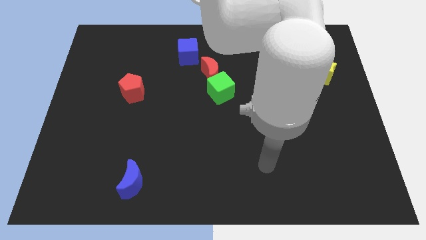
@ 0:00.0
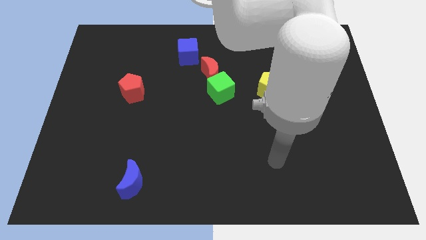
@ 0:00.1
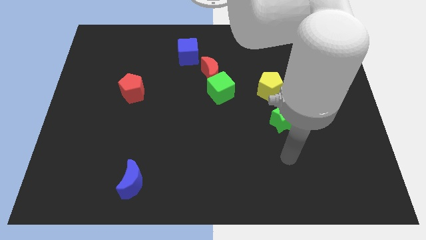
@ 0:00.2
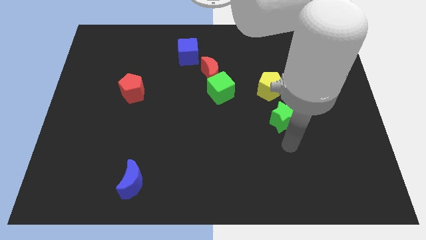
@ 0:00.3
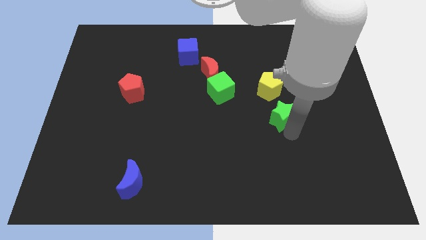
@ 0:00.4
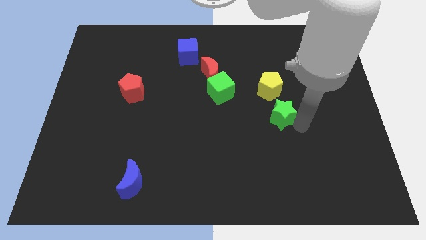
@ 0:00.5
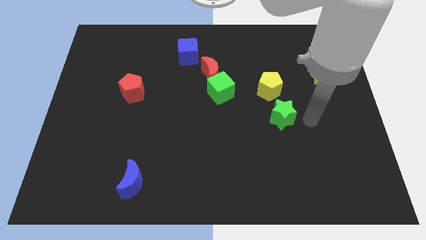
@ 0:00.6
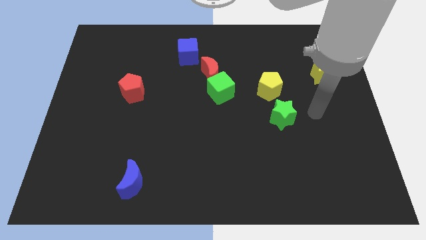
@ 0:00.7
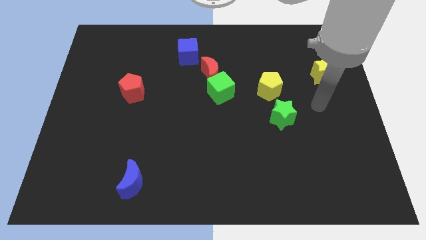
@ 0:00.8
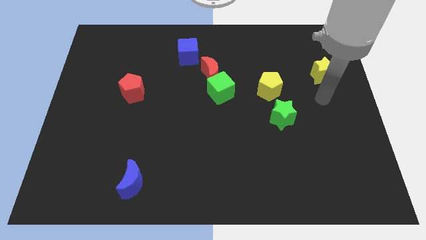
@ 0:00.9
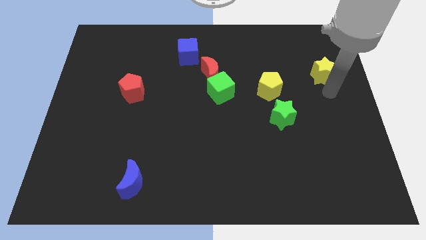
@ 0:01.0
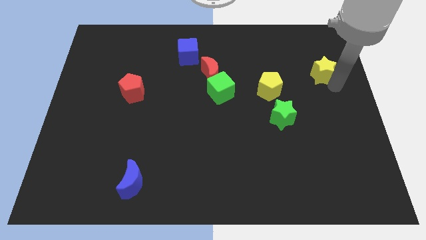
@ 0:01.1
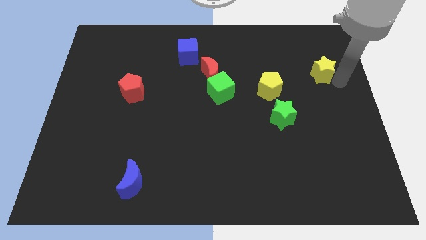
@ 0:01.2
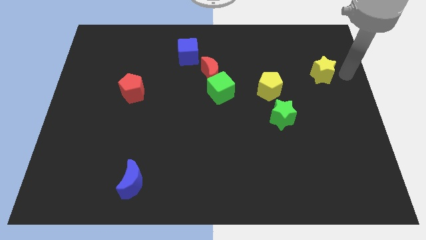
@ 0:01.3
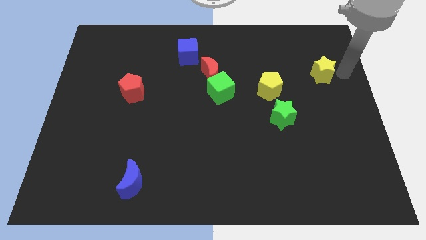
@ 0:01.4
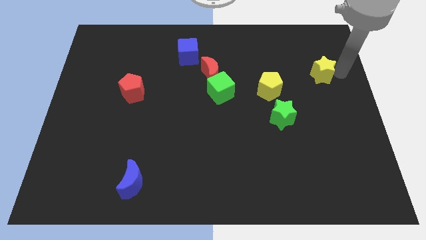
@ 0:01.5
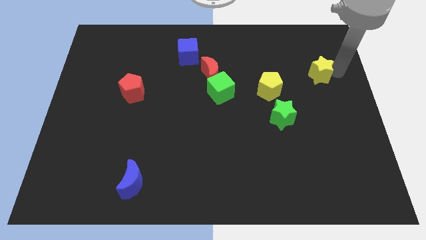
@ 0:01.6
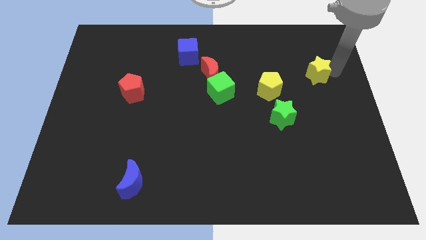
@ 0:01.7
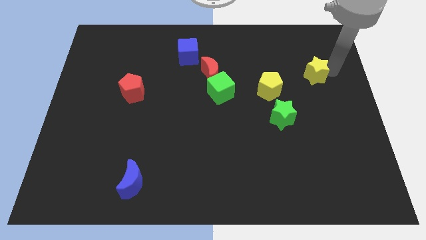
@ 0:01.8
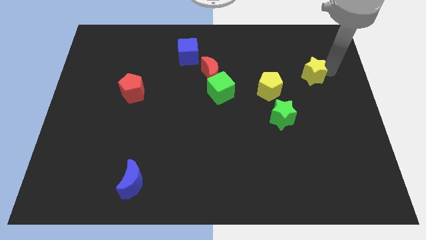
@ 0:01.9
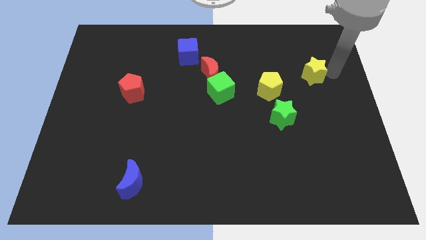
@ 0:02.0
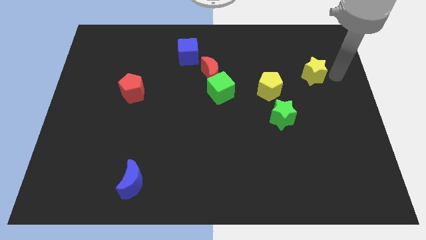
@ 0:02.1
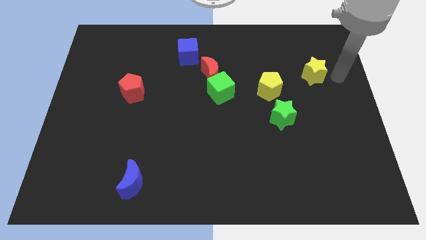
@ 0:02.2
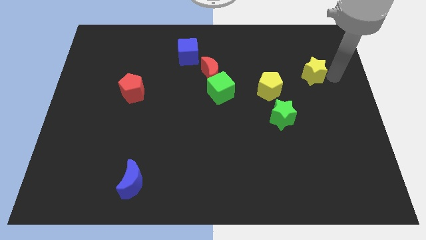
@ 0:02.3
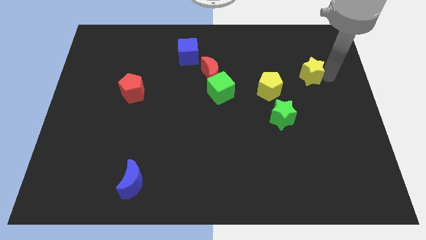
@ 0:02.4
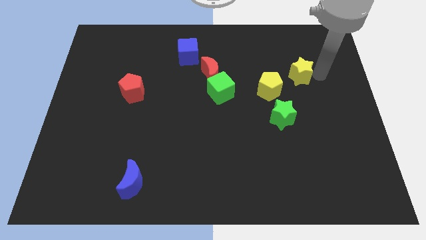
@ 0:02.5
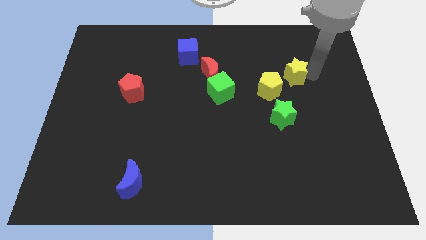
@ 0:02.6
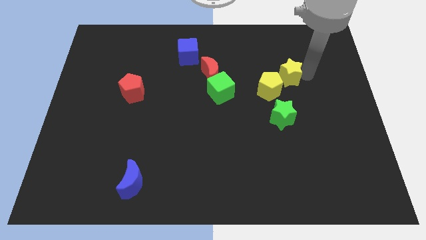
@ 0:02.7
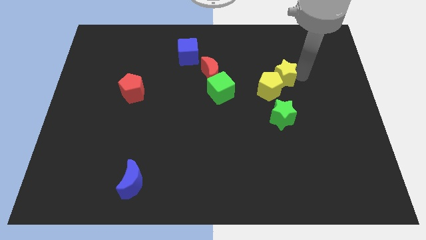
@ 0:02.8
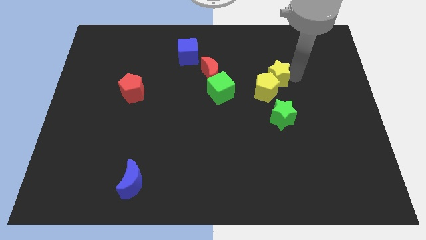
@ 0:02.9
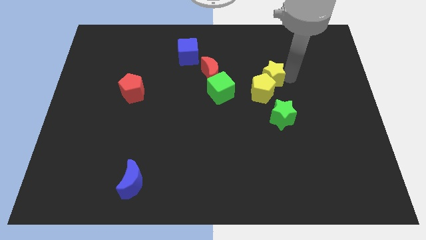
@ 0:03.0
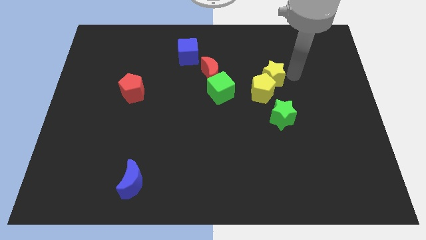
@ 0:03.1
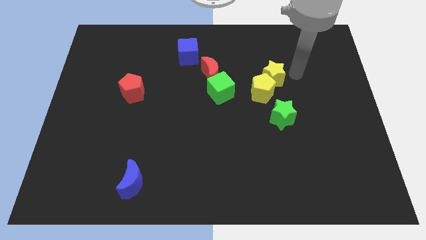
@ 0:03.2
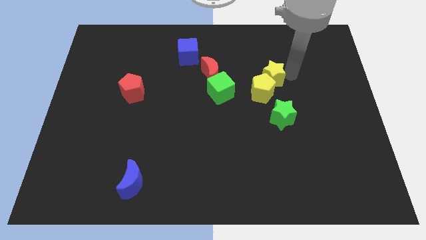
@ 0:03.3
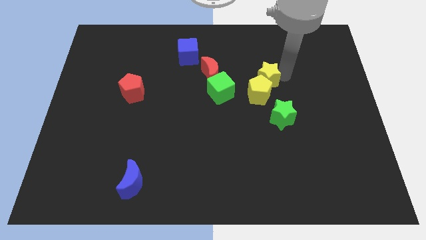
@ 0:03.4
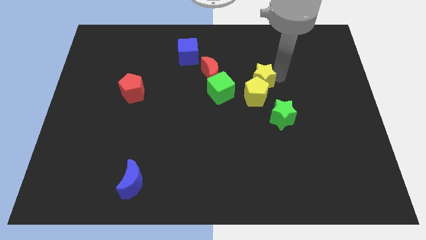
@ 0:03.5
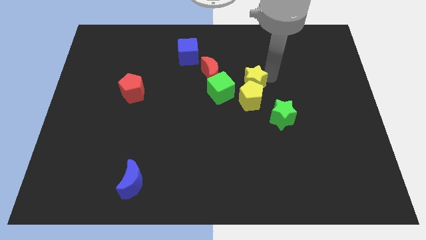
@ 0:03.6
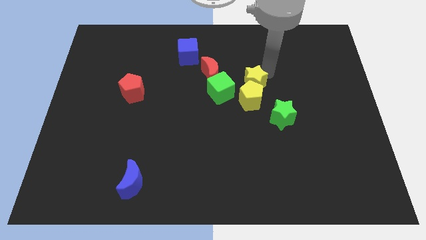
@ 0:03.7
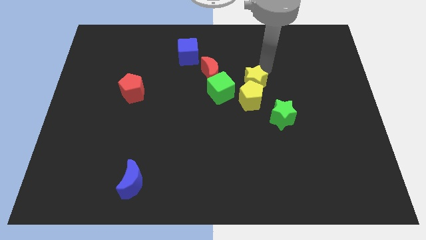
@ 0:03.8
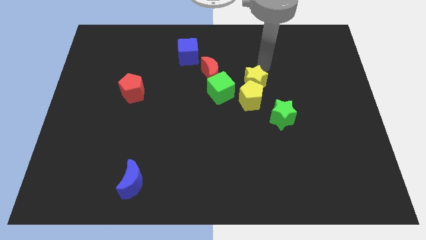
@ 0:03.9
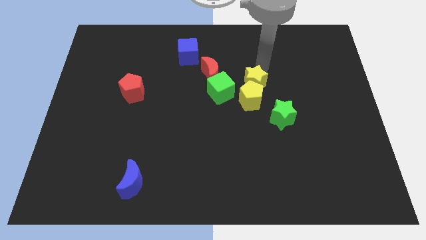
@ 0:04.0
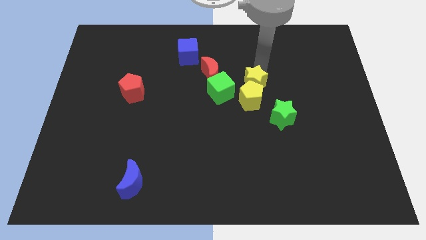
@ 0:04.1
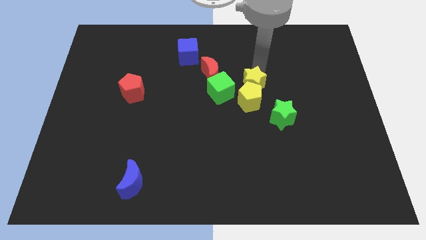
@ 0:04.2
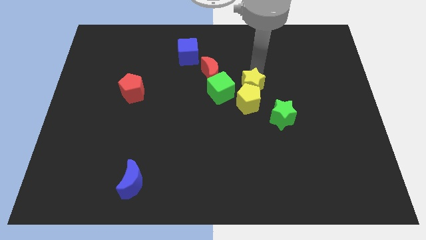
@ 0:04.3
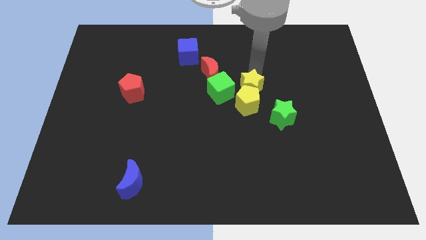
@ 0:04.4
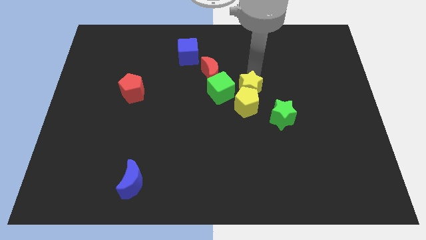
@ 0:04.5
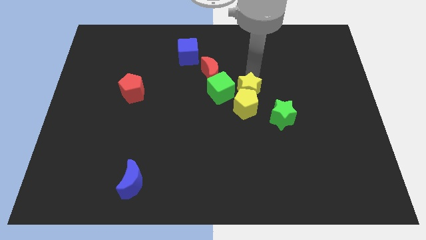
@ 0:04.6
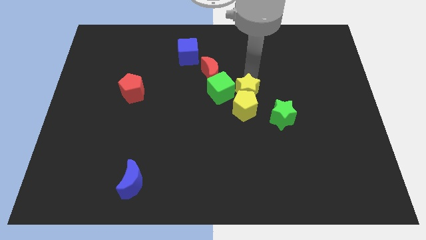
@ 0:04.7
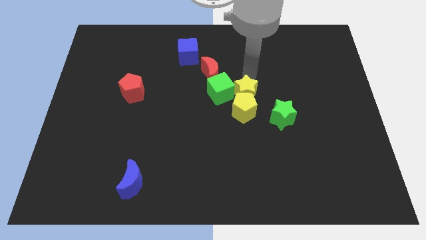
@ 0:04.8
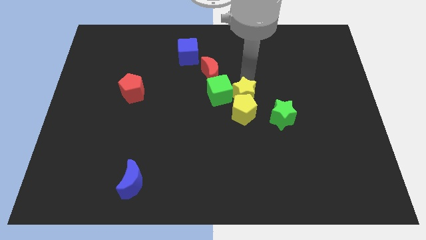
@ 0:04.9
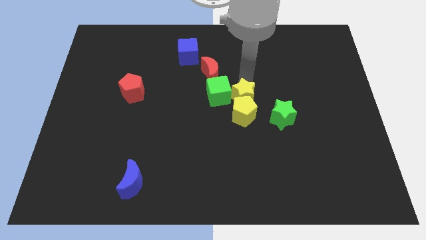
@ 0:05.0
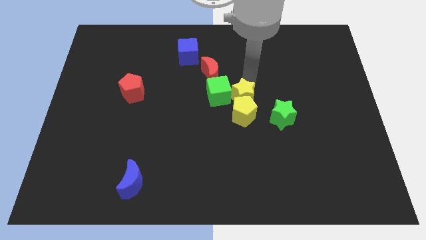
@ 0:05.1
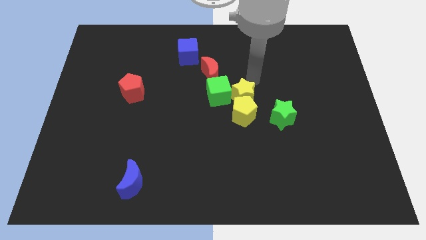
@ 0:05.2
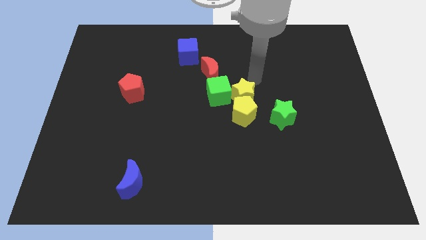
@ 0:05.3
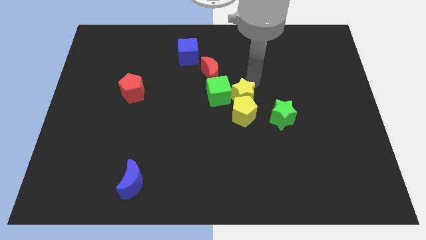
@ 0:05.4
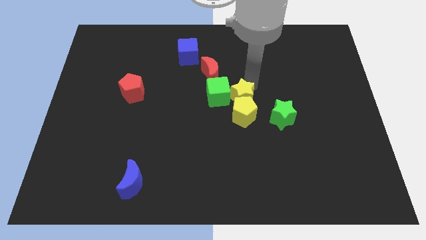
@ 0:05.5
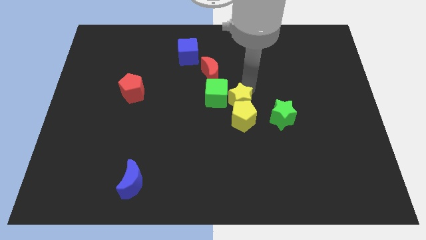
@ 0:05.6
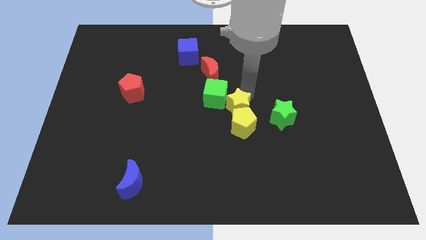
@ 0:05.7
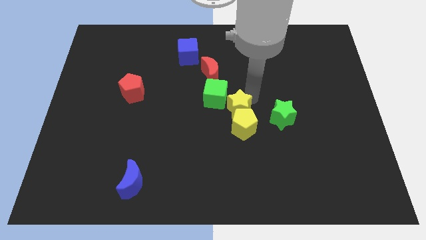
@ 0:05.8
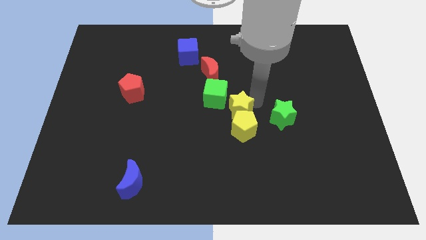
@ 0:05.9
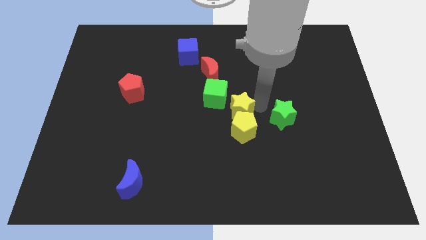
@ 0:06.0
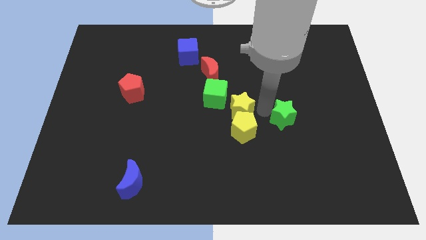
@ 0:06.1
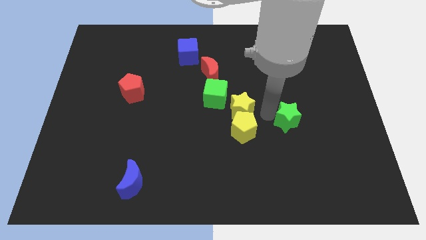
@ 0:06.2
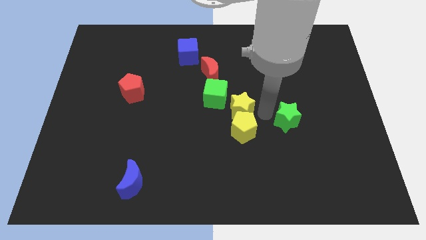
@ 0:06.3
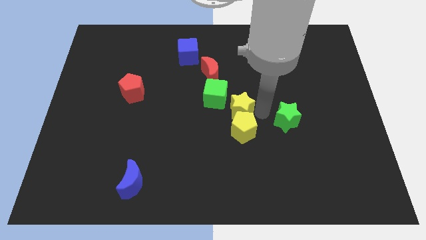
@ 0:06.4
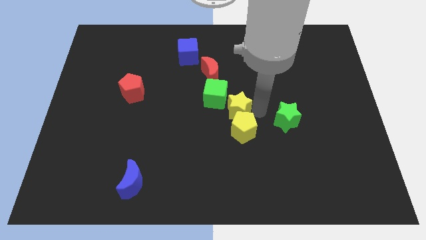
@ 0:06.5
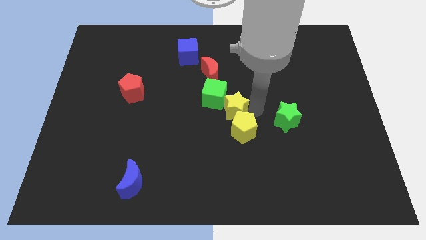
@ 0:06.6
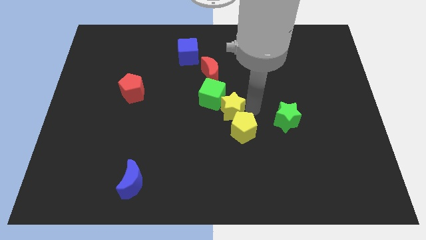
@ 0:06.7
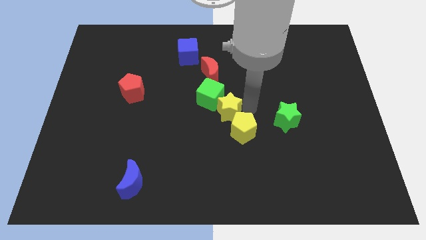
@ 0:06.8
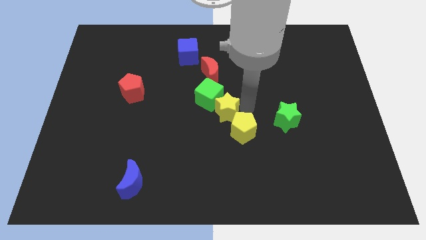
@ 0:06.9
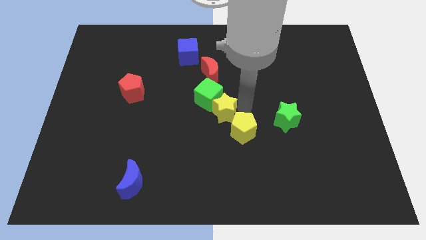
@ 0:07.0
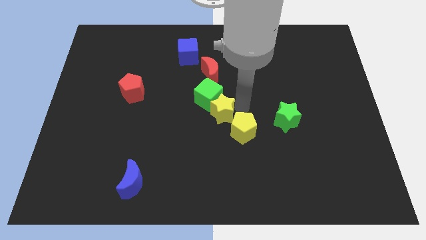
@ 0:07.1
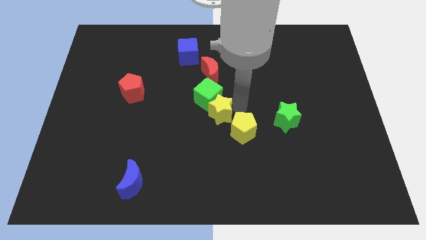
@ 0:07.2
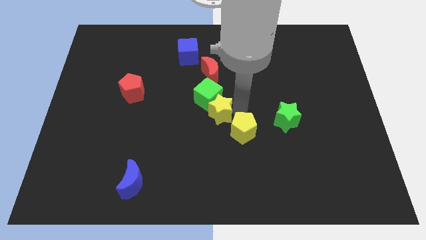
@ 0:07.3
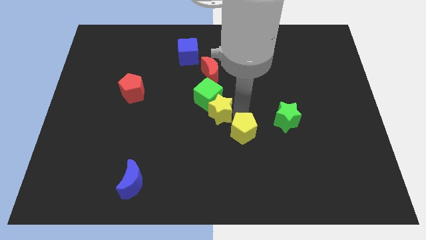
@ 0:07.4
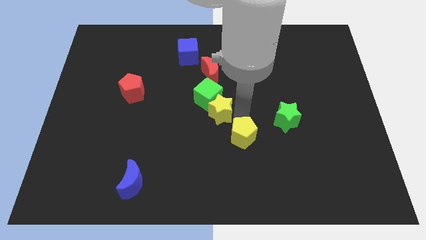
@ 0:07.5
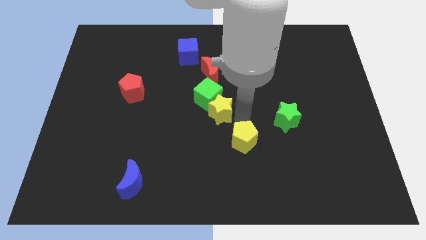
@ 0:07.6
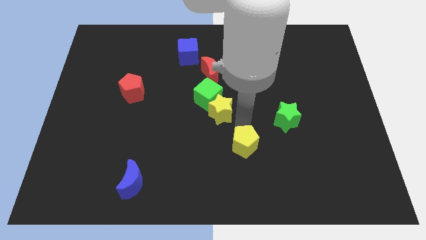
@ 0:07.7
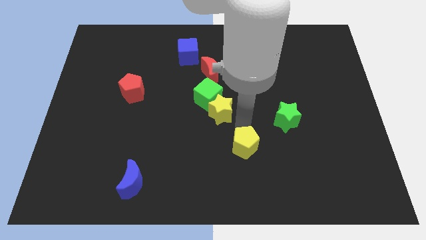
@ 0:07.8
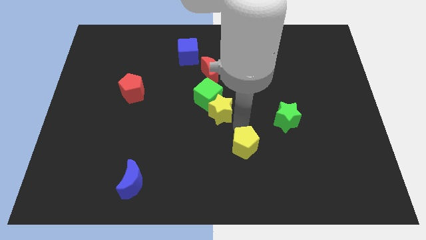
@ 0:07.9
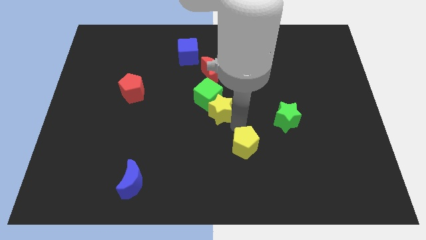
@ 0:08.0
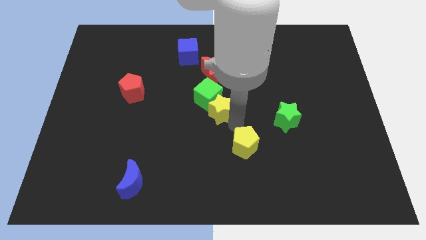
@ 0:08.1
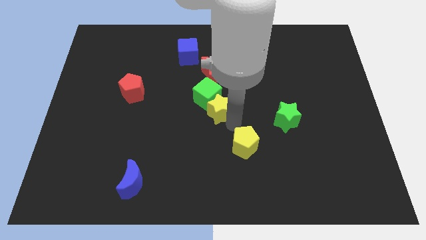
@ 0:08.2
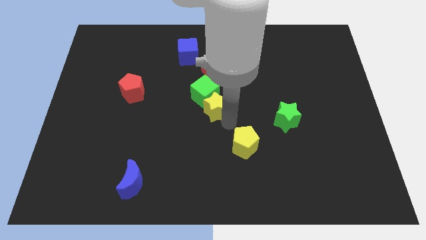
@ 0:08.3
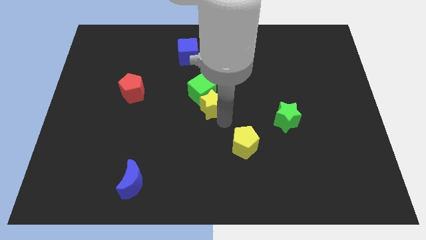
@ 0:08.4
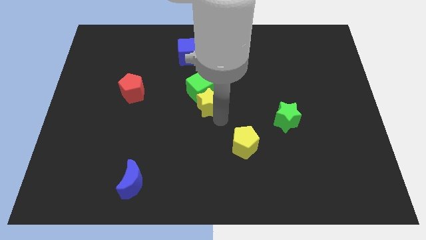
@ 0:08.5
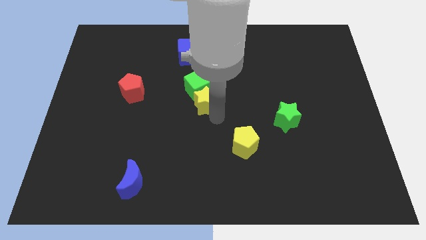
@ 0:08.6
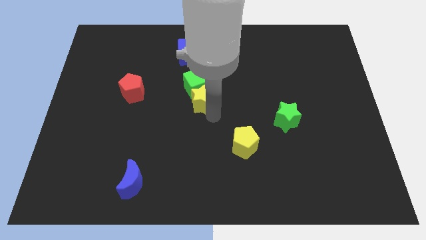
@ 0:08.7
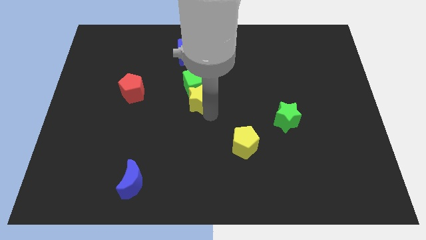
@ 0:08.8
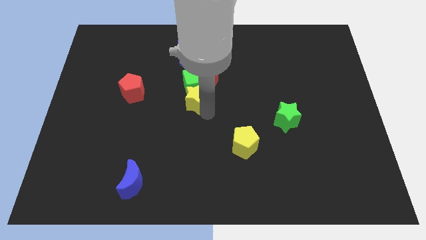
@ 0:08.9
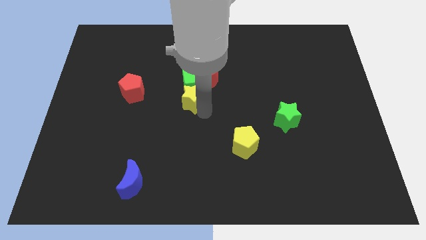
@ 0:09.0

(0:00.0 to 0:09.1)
push the yellow star to the bottom side of the blue cube
